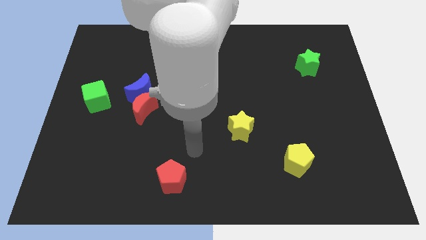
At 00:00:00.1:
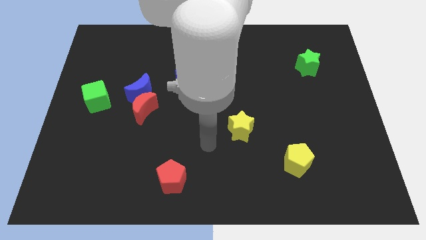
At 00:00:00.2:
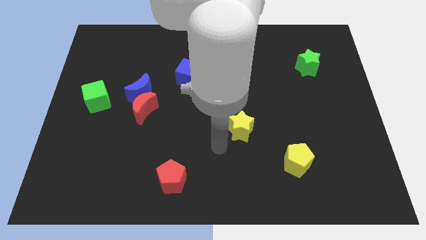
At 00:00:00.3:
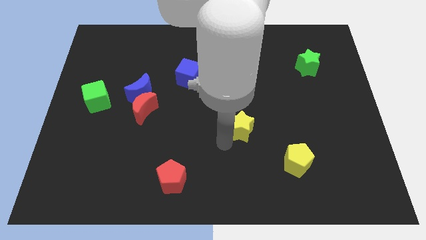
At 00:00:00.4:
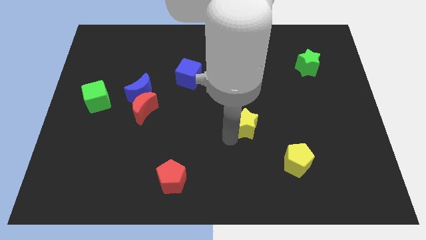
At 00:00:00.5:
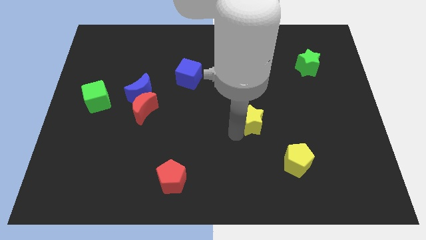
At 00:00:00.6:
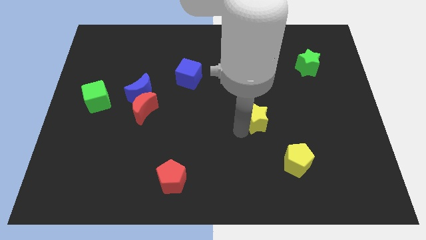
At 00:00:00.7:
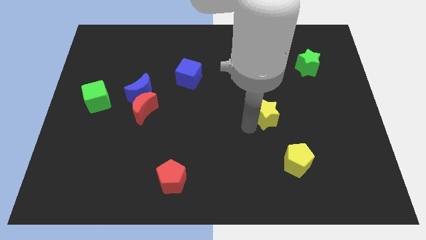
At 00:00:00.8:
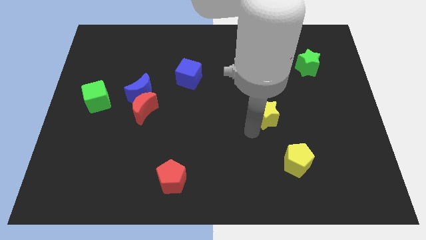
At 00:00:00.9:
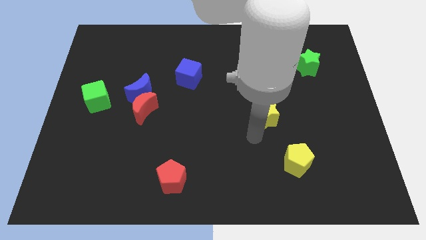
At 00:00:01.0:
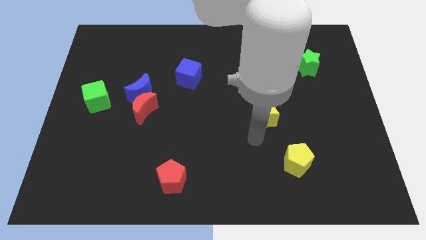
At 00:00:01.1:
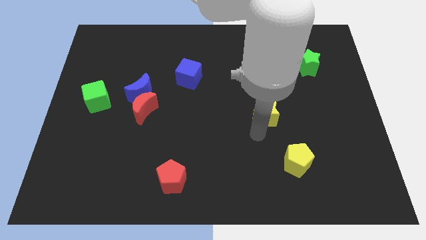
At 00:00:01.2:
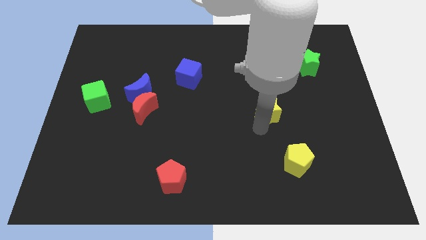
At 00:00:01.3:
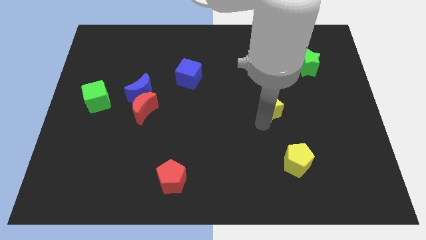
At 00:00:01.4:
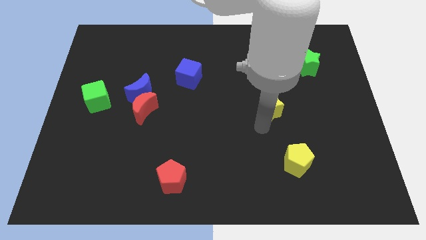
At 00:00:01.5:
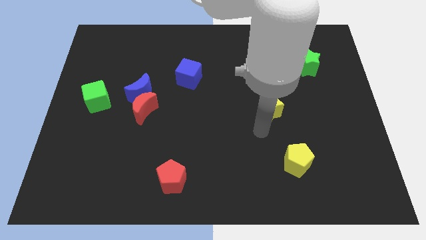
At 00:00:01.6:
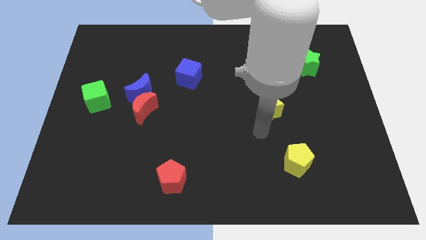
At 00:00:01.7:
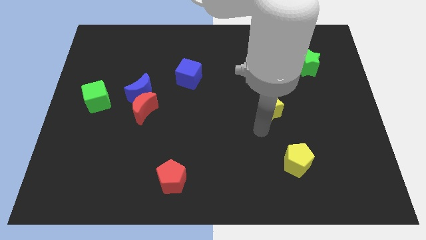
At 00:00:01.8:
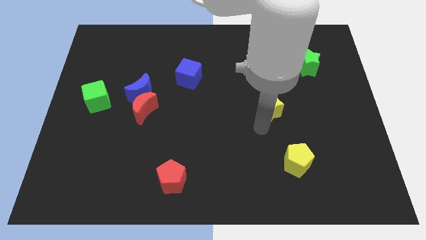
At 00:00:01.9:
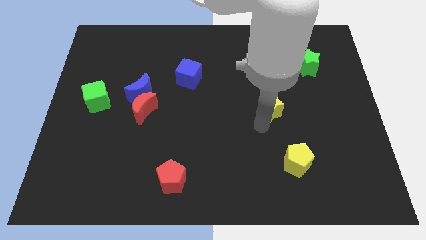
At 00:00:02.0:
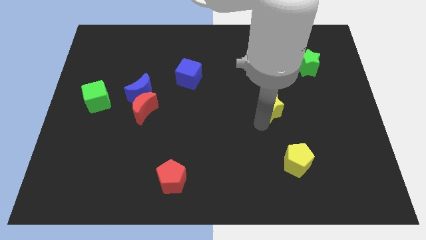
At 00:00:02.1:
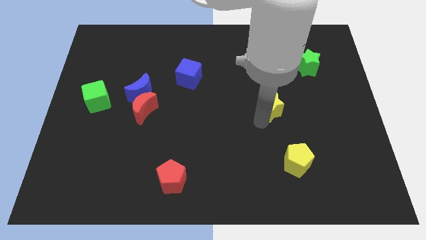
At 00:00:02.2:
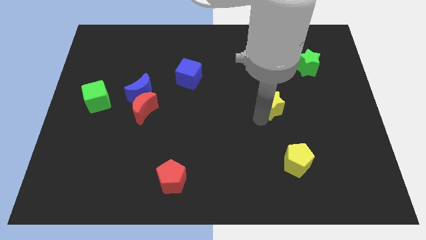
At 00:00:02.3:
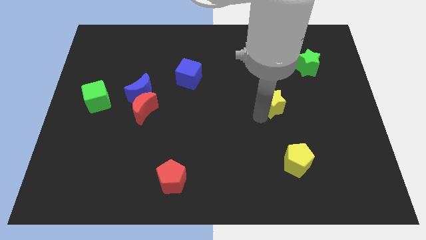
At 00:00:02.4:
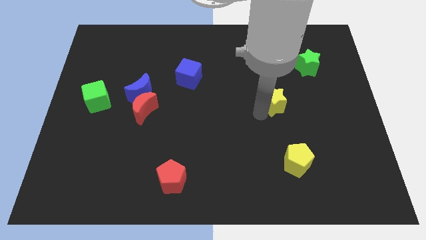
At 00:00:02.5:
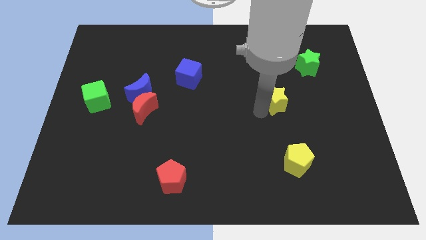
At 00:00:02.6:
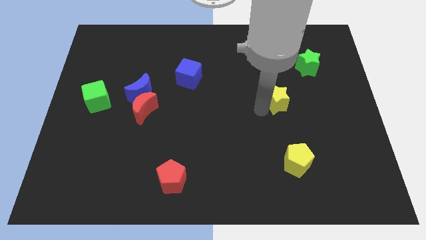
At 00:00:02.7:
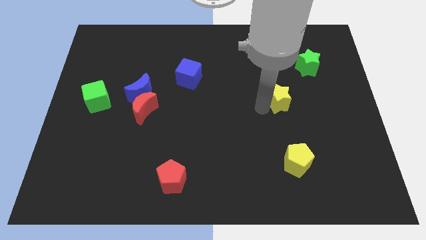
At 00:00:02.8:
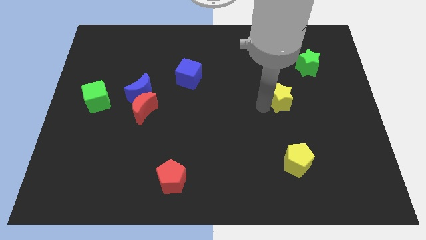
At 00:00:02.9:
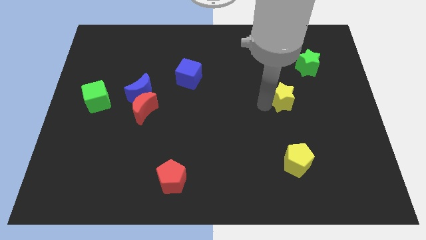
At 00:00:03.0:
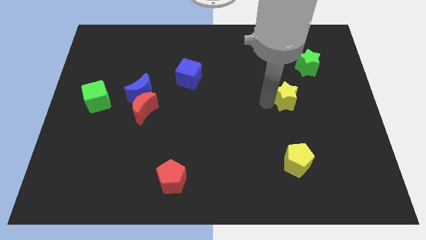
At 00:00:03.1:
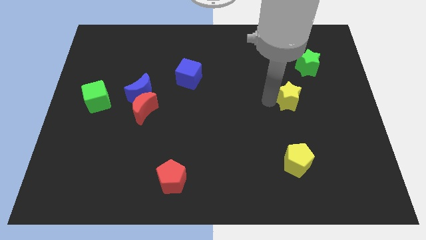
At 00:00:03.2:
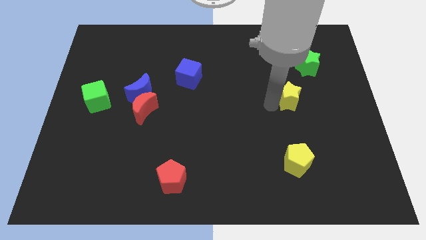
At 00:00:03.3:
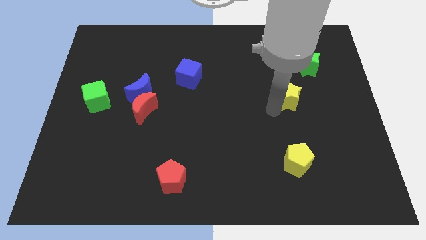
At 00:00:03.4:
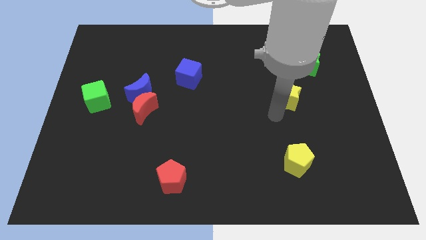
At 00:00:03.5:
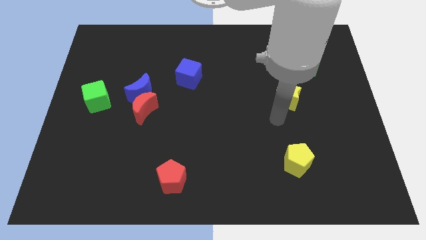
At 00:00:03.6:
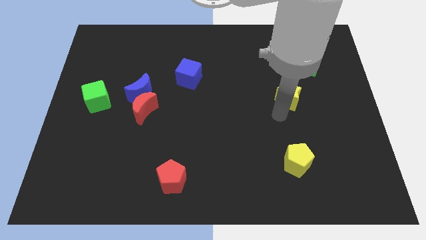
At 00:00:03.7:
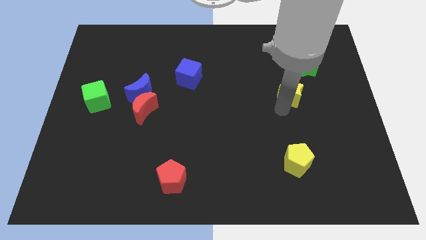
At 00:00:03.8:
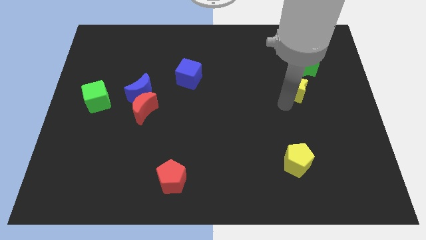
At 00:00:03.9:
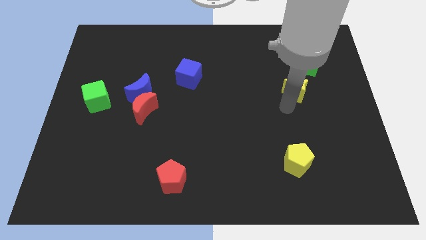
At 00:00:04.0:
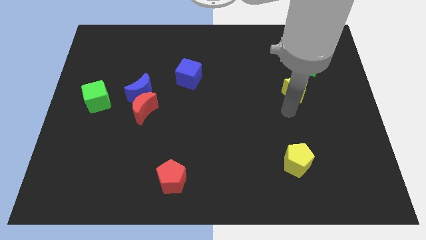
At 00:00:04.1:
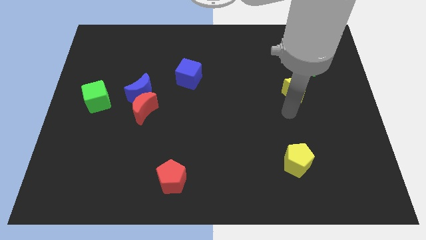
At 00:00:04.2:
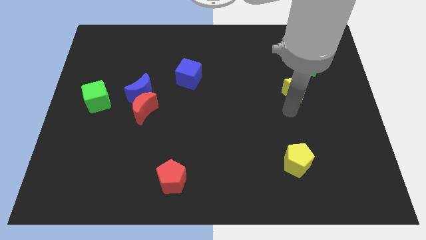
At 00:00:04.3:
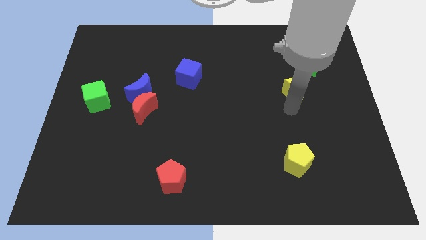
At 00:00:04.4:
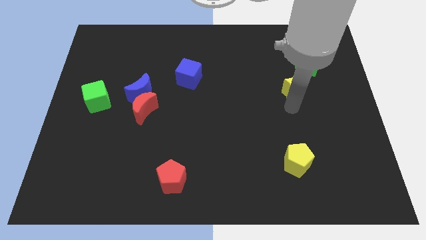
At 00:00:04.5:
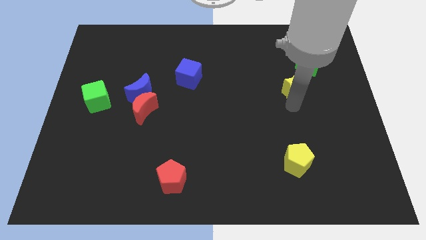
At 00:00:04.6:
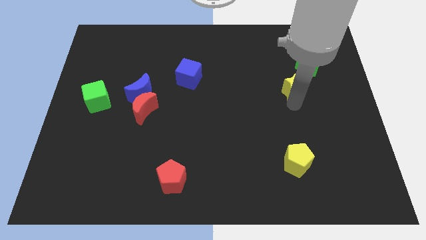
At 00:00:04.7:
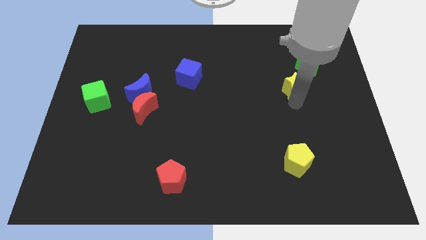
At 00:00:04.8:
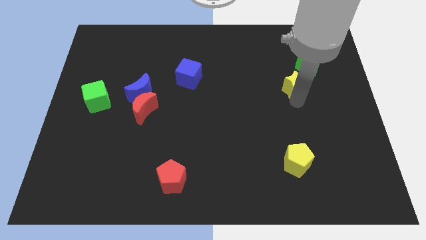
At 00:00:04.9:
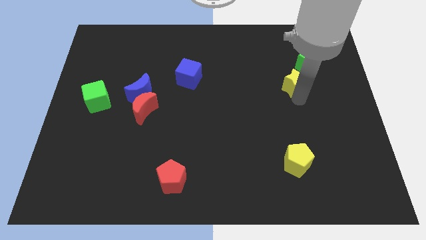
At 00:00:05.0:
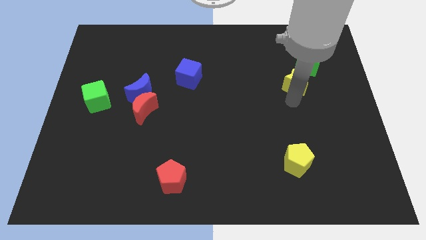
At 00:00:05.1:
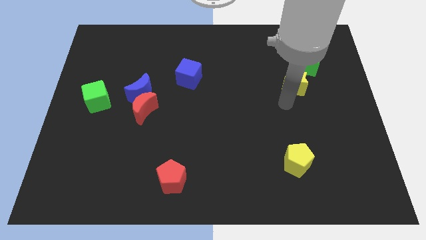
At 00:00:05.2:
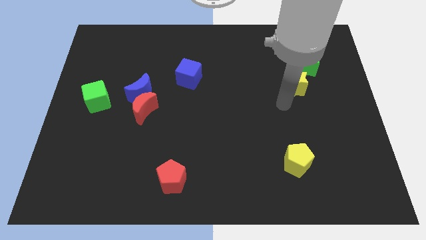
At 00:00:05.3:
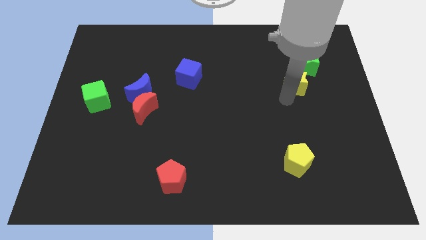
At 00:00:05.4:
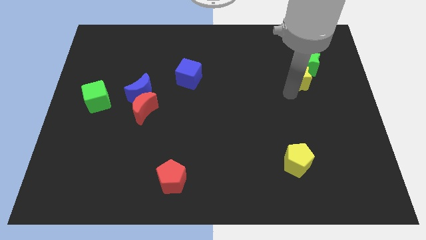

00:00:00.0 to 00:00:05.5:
put the yellow star close to the green star

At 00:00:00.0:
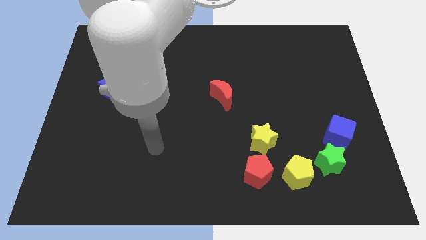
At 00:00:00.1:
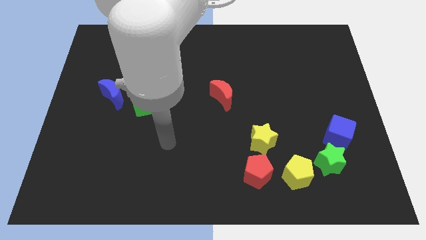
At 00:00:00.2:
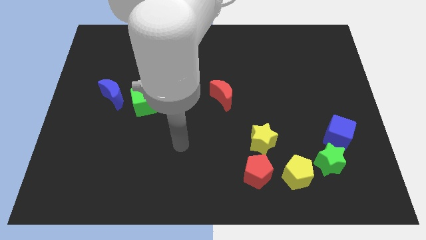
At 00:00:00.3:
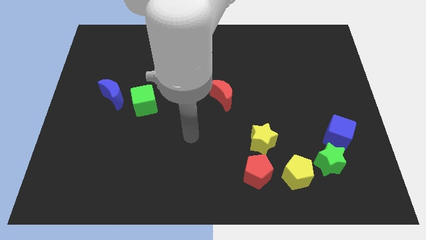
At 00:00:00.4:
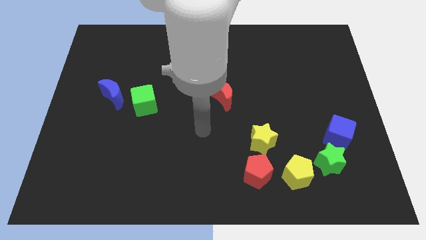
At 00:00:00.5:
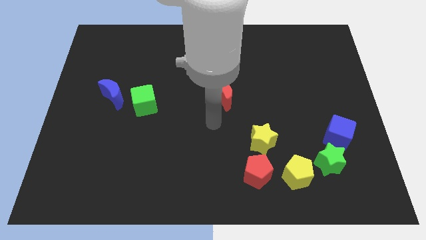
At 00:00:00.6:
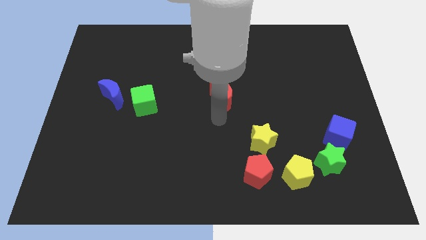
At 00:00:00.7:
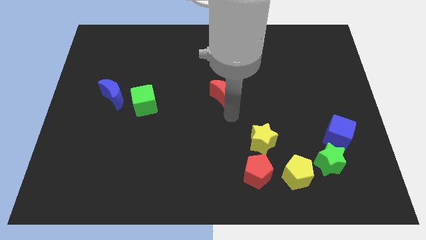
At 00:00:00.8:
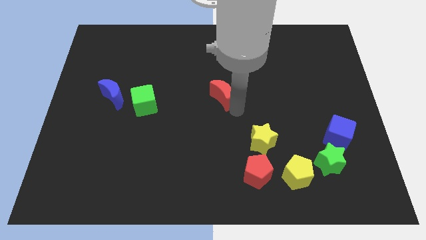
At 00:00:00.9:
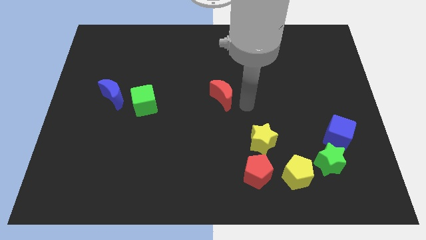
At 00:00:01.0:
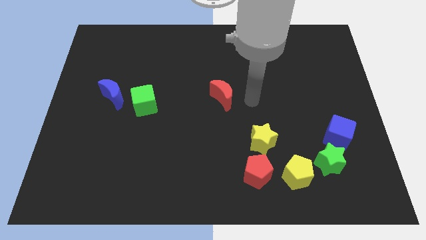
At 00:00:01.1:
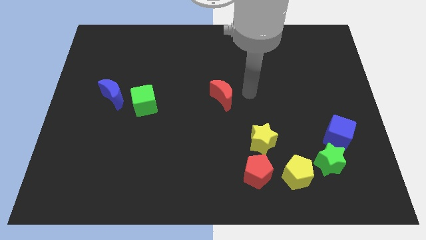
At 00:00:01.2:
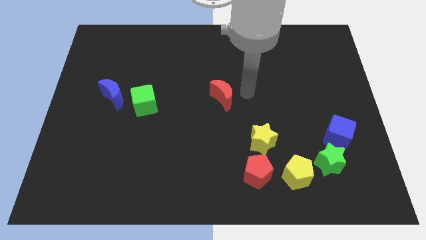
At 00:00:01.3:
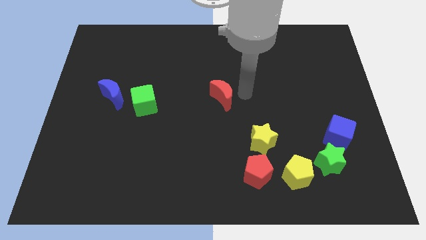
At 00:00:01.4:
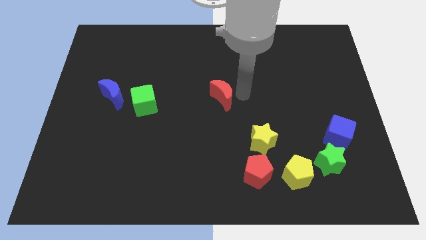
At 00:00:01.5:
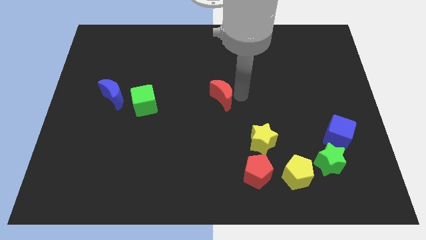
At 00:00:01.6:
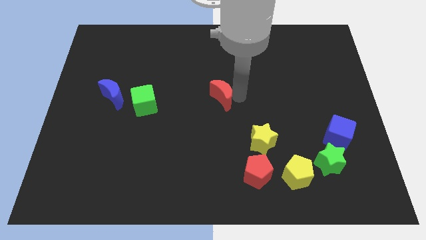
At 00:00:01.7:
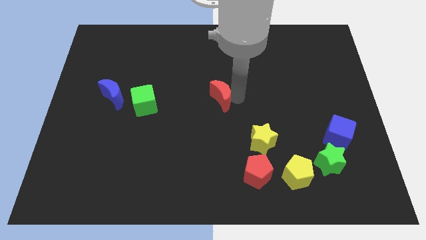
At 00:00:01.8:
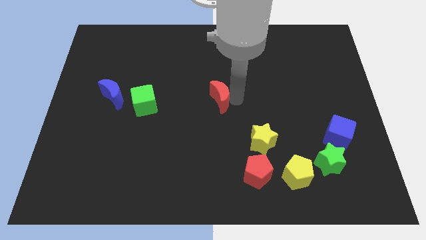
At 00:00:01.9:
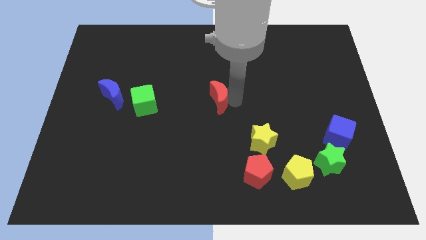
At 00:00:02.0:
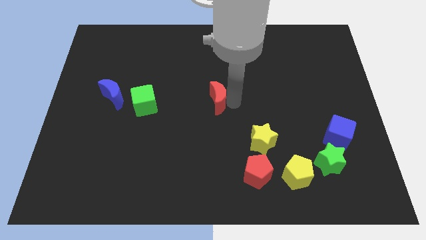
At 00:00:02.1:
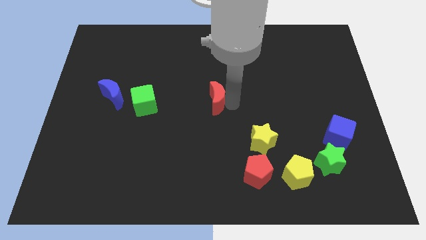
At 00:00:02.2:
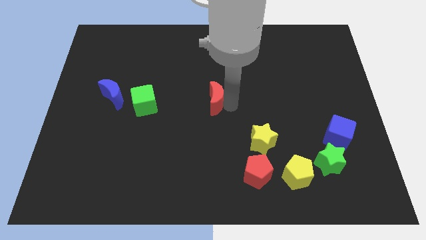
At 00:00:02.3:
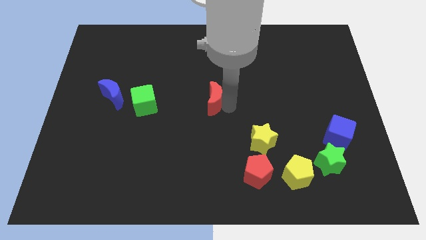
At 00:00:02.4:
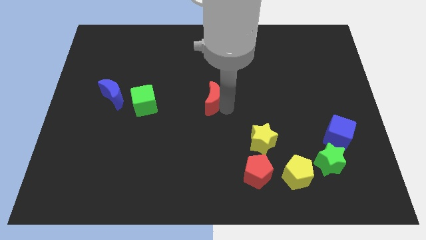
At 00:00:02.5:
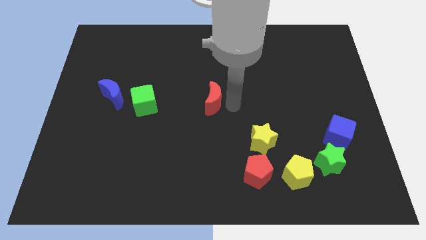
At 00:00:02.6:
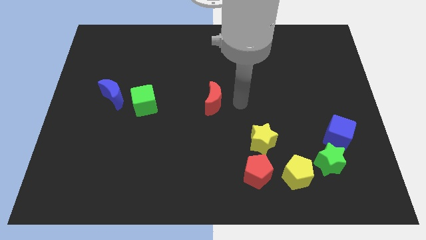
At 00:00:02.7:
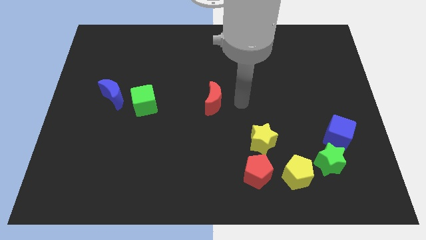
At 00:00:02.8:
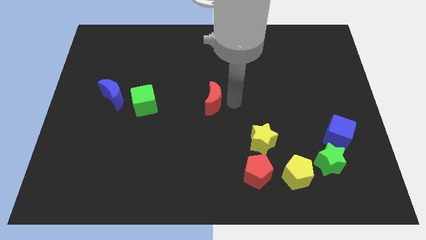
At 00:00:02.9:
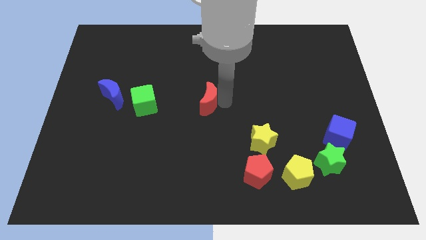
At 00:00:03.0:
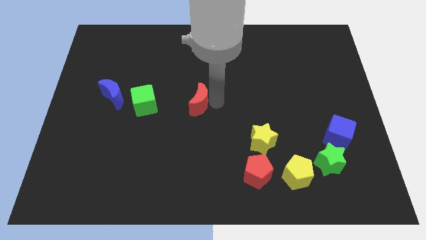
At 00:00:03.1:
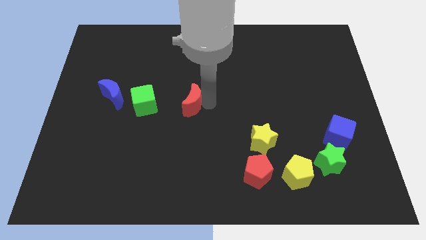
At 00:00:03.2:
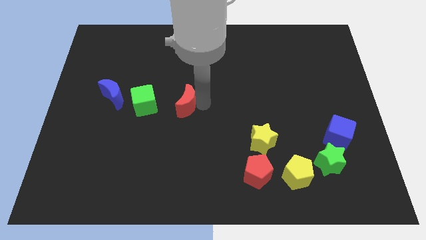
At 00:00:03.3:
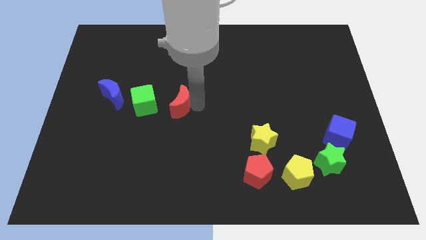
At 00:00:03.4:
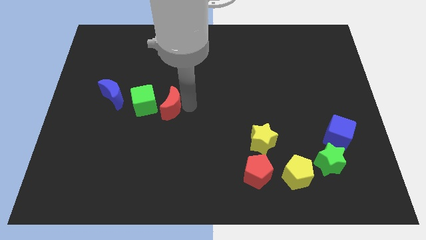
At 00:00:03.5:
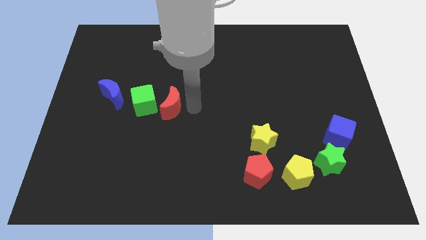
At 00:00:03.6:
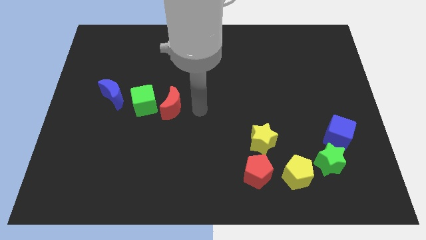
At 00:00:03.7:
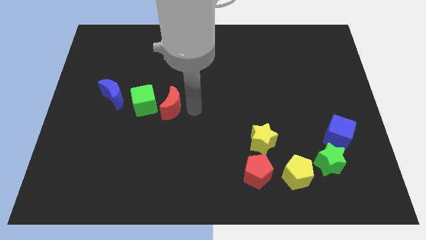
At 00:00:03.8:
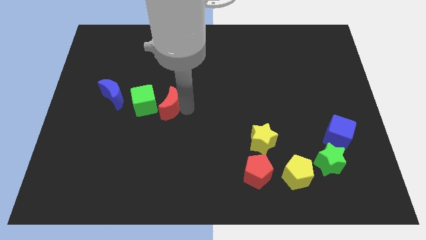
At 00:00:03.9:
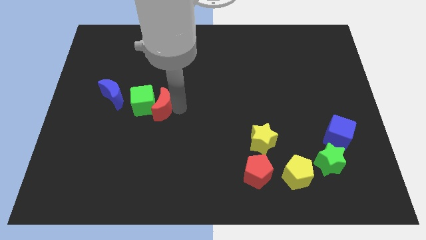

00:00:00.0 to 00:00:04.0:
slide the red moon towards the green cube
